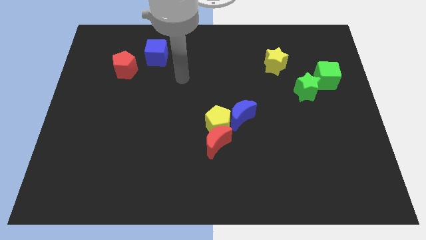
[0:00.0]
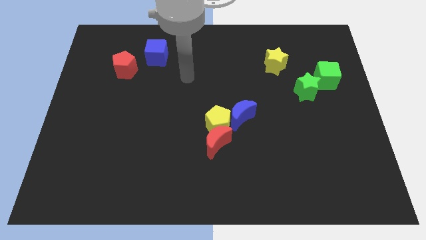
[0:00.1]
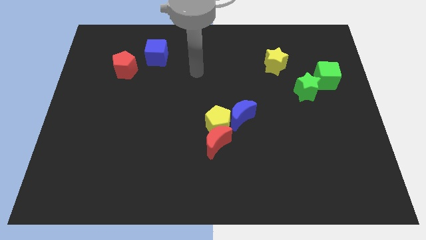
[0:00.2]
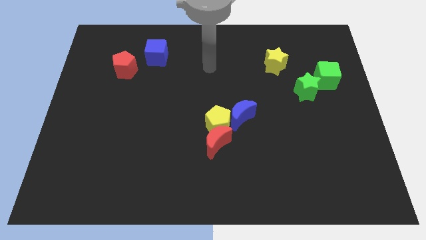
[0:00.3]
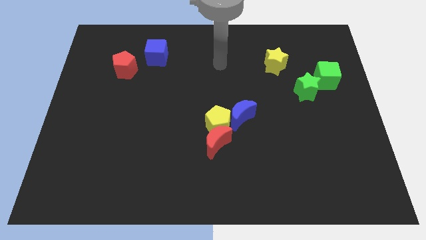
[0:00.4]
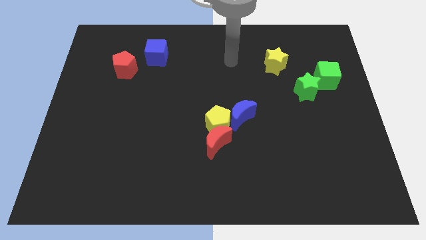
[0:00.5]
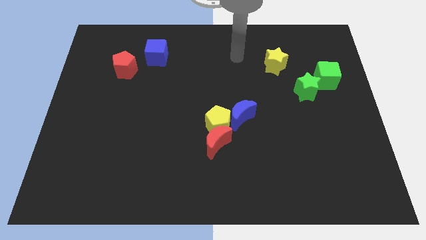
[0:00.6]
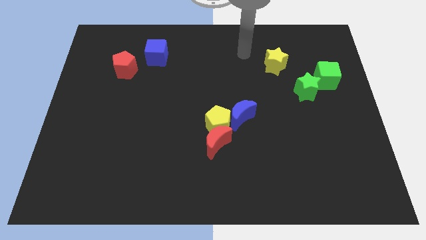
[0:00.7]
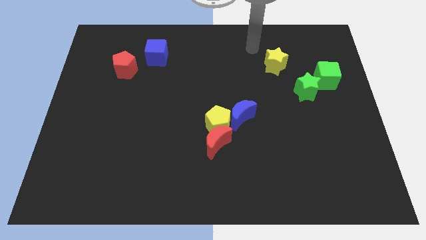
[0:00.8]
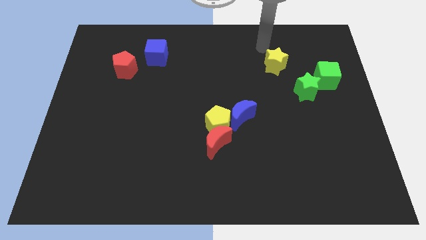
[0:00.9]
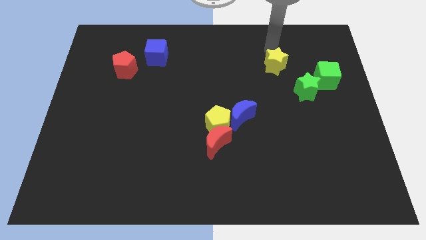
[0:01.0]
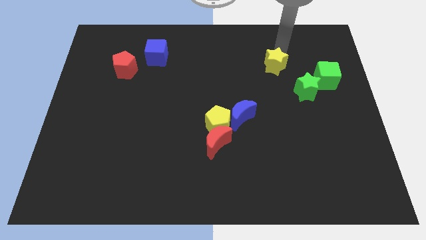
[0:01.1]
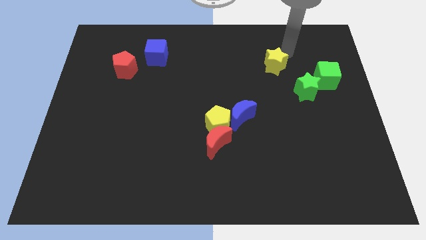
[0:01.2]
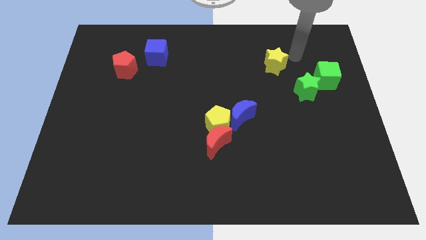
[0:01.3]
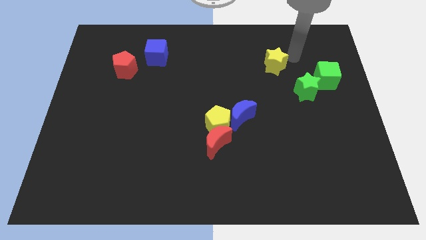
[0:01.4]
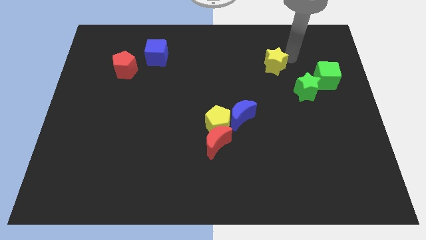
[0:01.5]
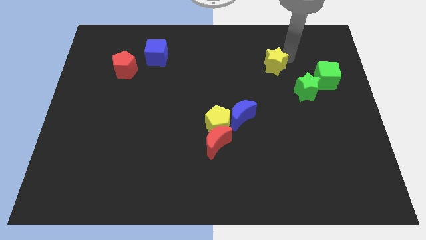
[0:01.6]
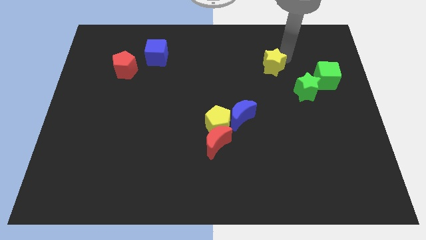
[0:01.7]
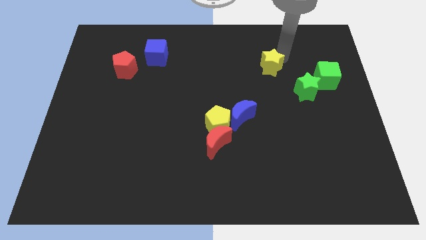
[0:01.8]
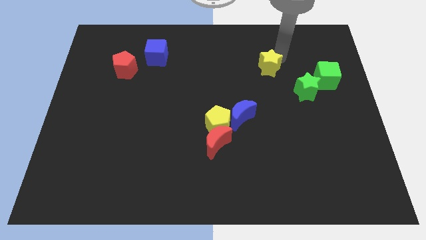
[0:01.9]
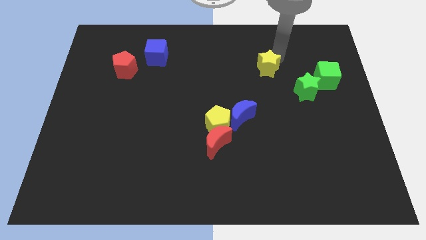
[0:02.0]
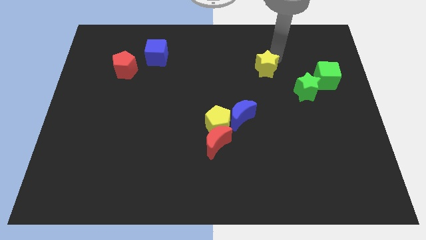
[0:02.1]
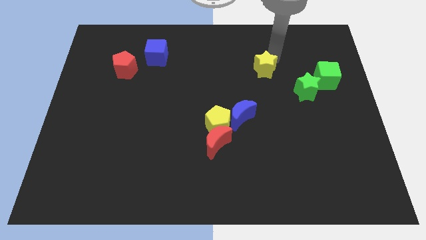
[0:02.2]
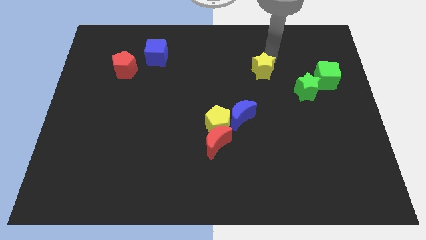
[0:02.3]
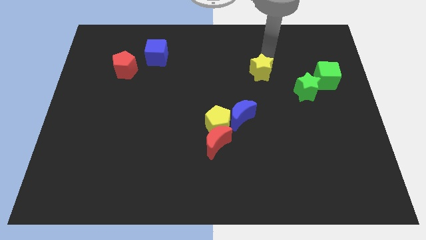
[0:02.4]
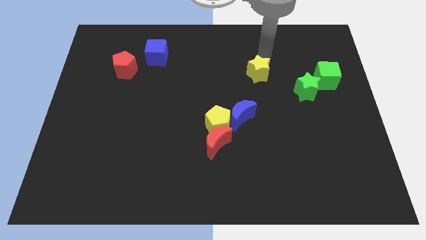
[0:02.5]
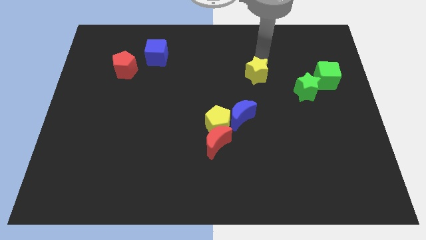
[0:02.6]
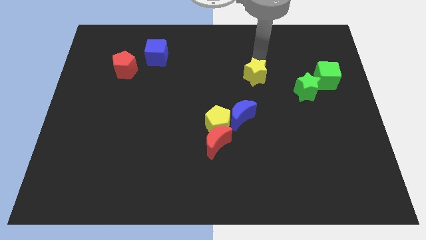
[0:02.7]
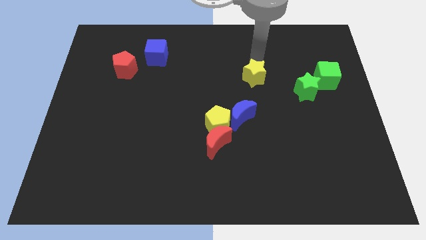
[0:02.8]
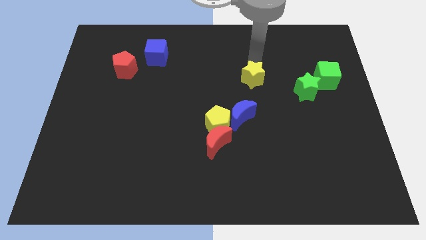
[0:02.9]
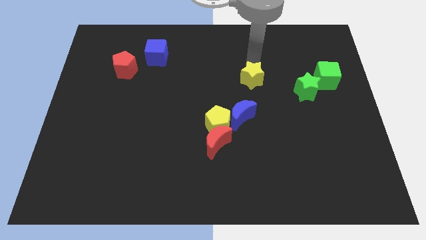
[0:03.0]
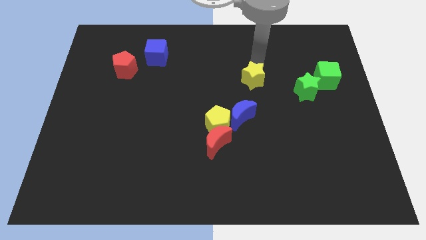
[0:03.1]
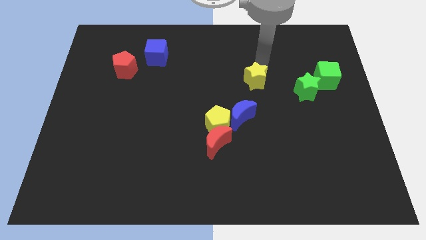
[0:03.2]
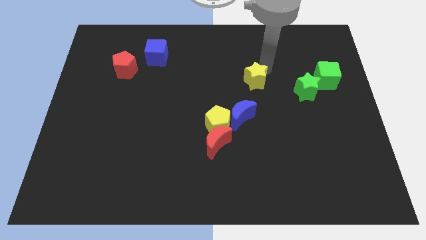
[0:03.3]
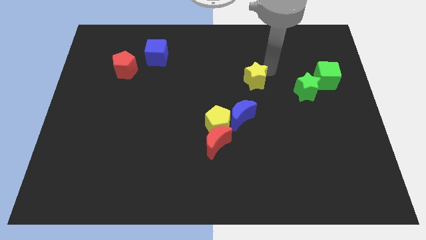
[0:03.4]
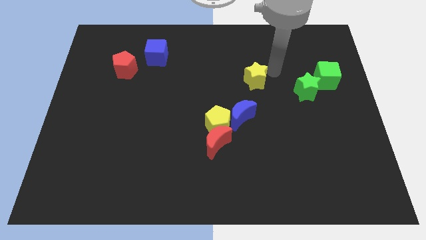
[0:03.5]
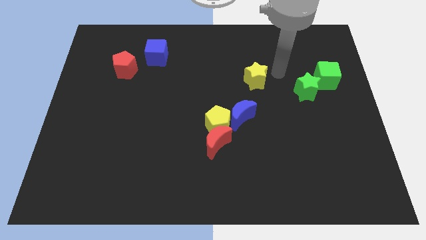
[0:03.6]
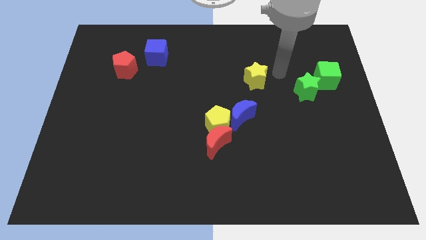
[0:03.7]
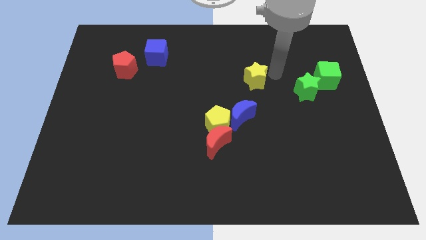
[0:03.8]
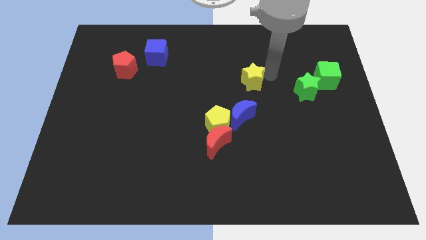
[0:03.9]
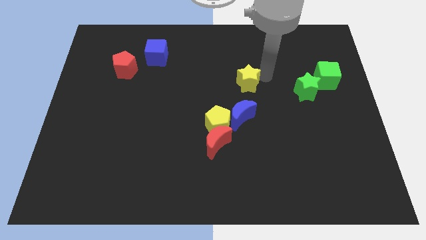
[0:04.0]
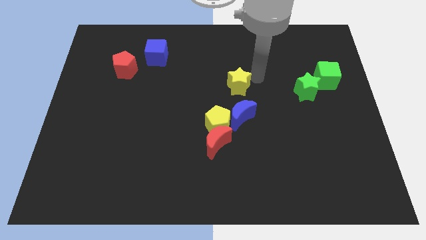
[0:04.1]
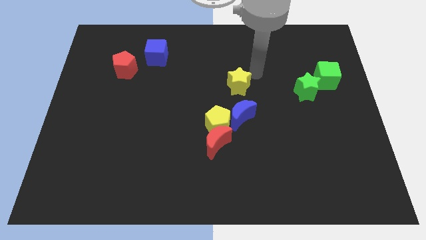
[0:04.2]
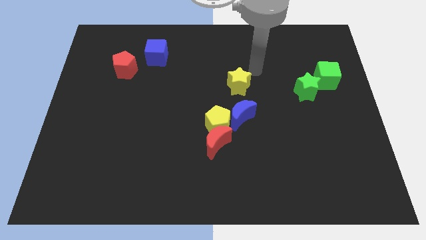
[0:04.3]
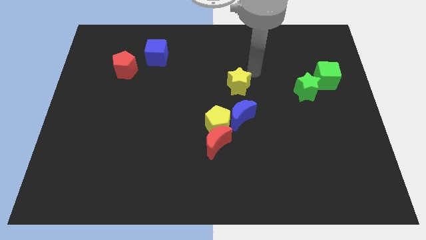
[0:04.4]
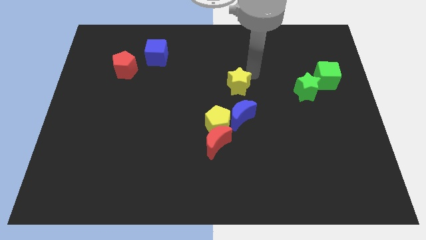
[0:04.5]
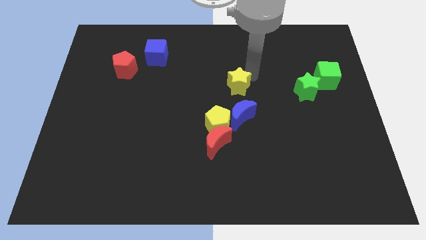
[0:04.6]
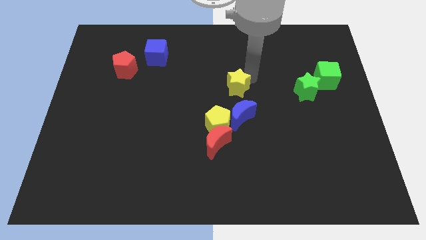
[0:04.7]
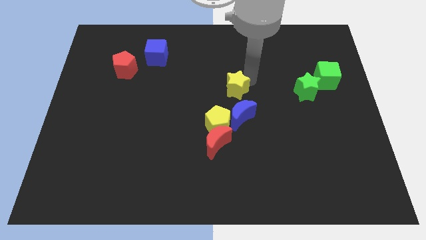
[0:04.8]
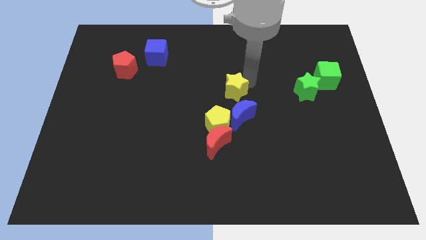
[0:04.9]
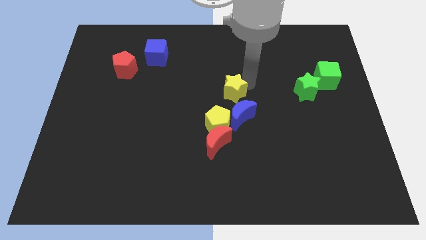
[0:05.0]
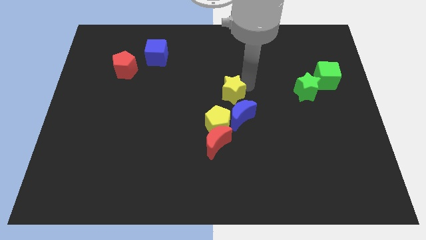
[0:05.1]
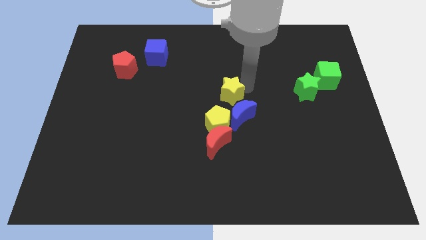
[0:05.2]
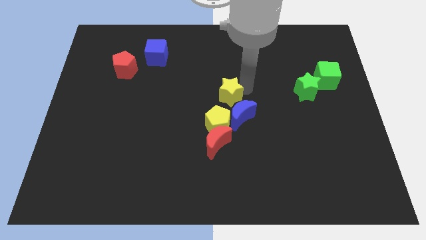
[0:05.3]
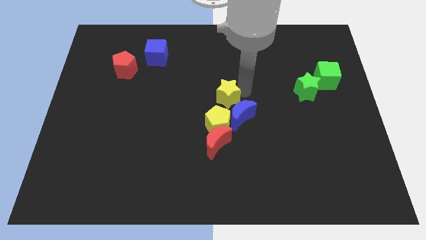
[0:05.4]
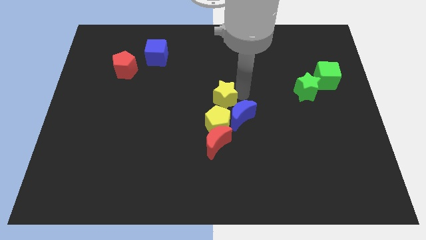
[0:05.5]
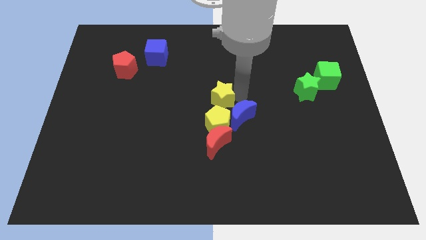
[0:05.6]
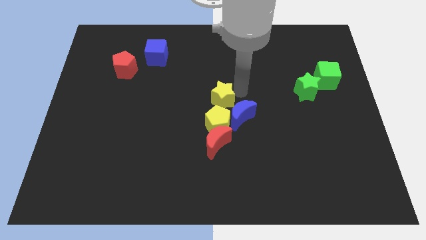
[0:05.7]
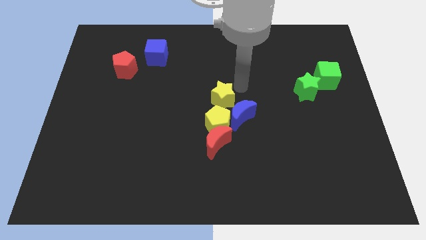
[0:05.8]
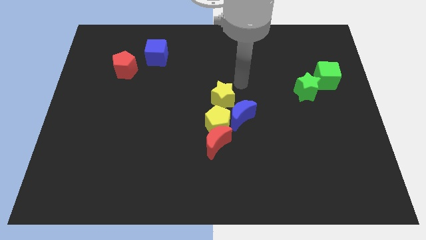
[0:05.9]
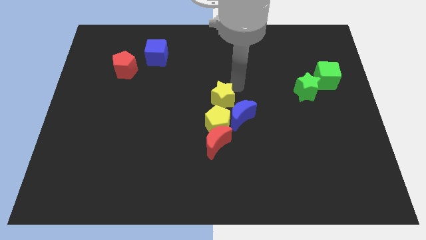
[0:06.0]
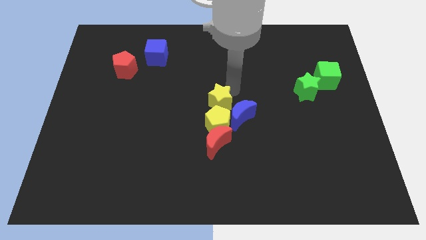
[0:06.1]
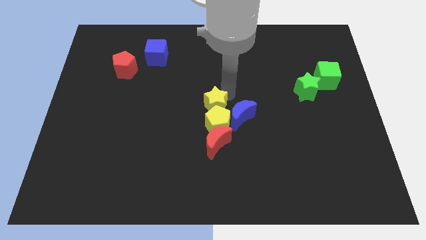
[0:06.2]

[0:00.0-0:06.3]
slide the yellow star diagonally down and to the left

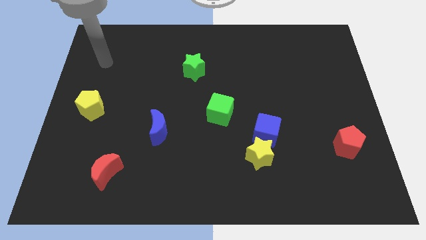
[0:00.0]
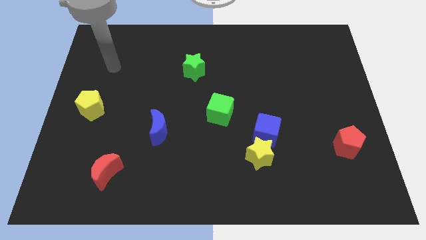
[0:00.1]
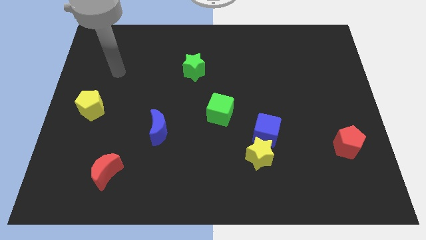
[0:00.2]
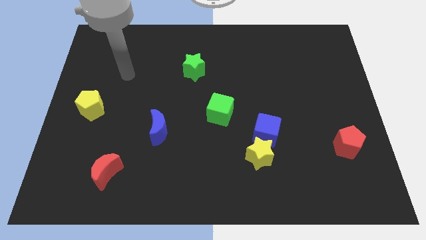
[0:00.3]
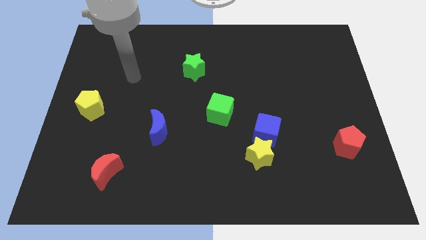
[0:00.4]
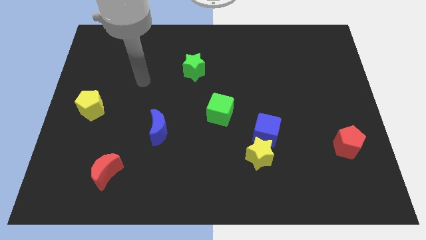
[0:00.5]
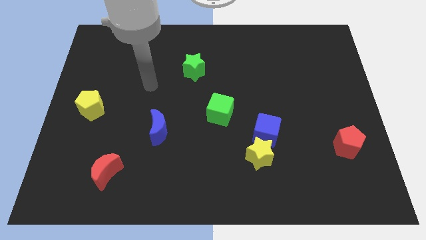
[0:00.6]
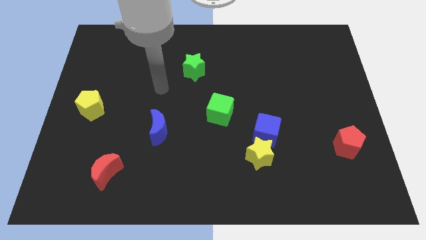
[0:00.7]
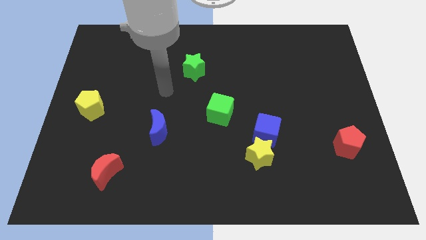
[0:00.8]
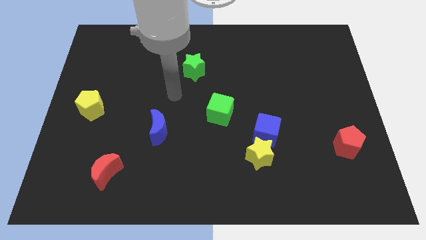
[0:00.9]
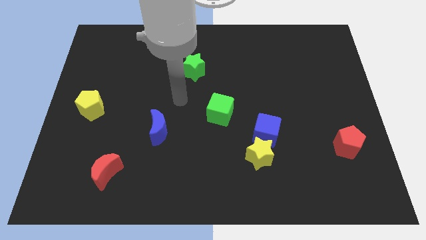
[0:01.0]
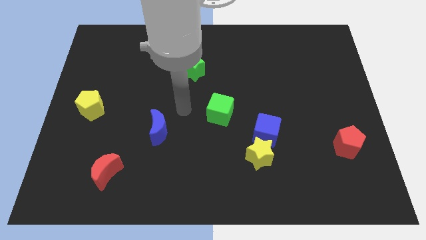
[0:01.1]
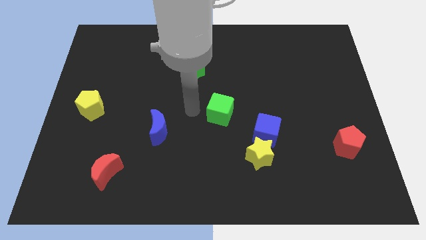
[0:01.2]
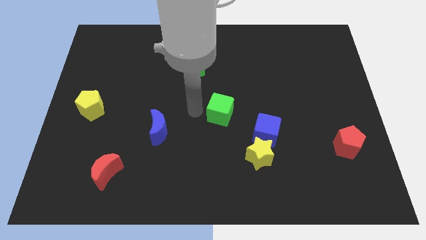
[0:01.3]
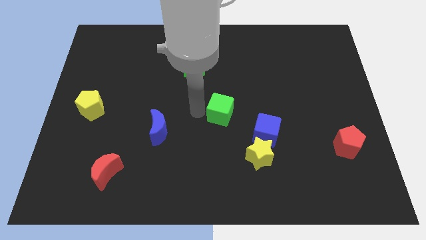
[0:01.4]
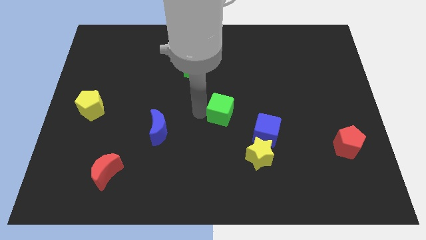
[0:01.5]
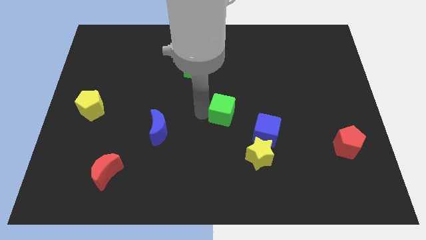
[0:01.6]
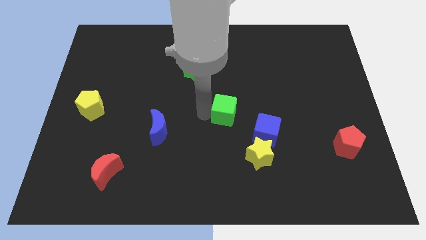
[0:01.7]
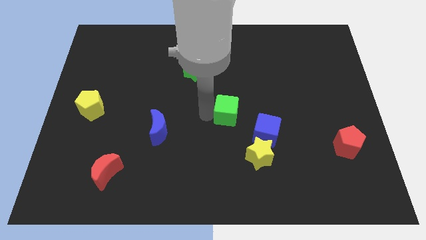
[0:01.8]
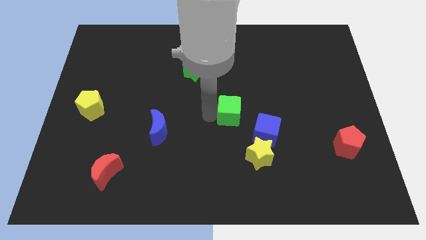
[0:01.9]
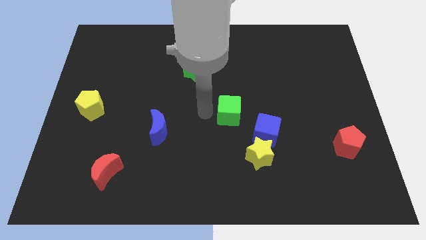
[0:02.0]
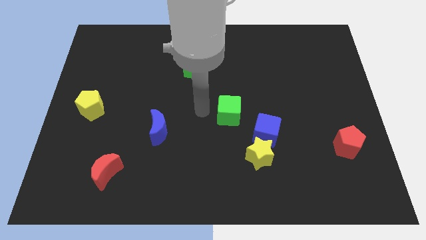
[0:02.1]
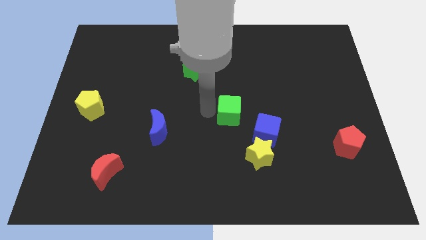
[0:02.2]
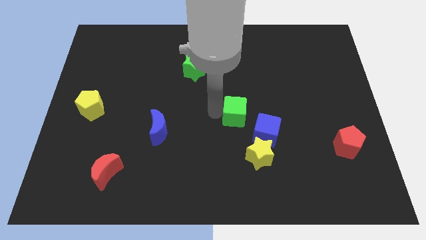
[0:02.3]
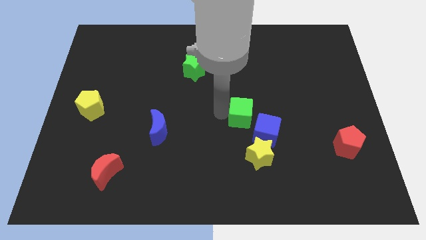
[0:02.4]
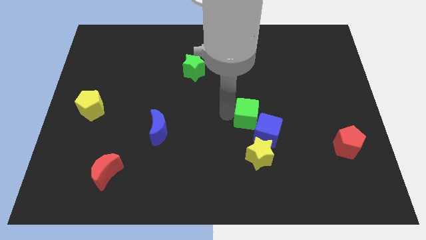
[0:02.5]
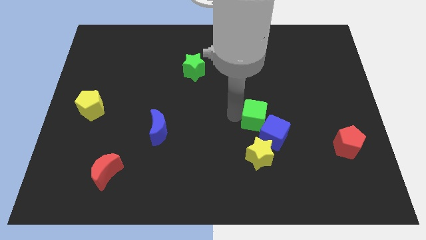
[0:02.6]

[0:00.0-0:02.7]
slide the green cube a little bit to the right
